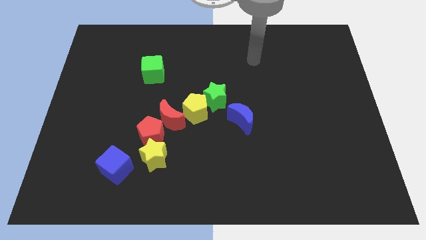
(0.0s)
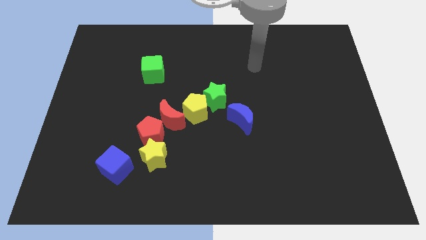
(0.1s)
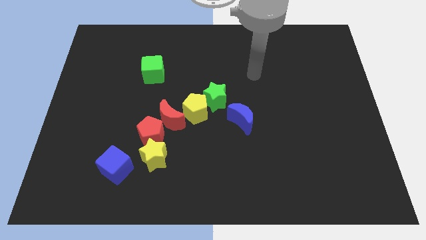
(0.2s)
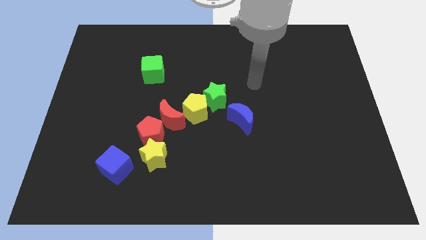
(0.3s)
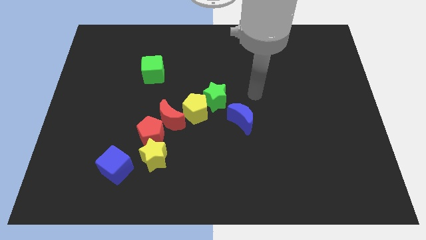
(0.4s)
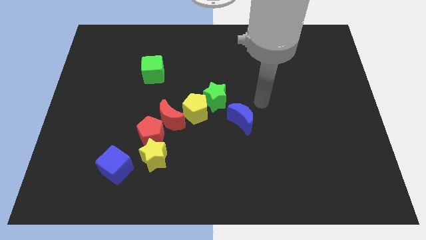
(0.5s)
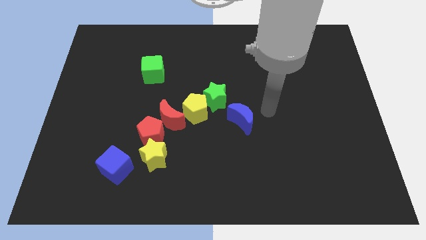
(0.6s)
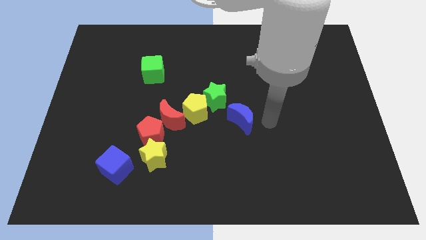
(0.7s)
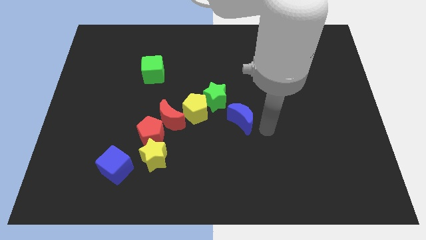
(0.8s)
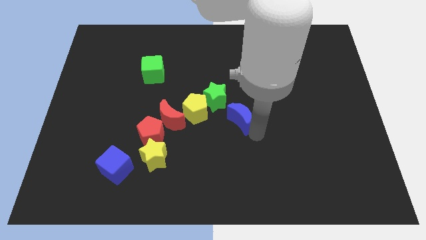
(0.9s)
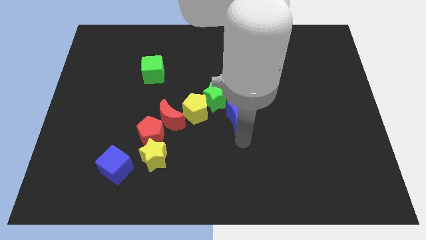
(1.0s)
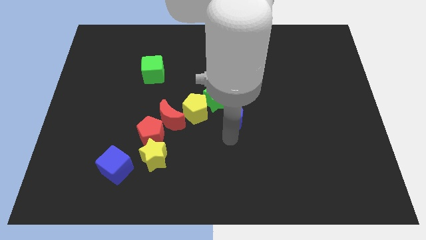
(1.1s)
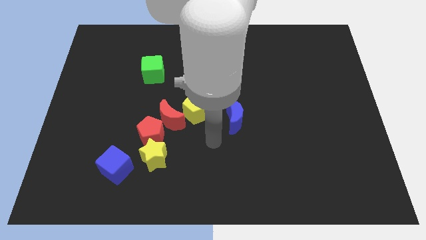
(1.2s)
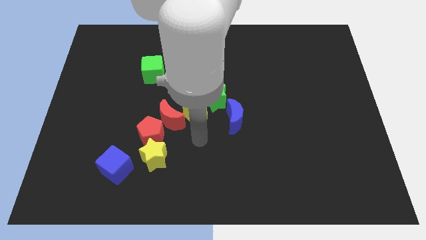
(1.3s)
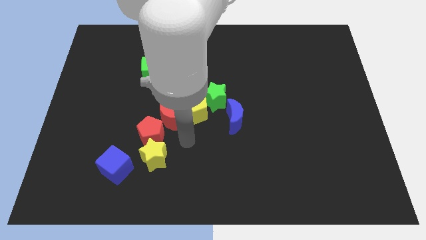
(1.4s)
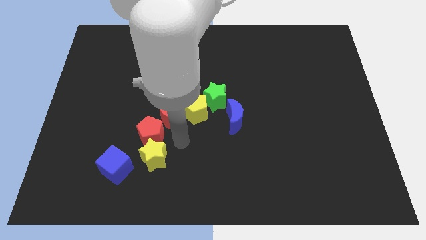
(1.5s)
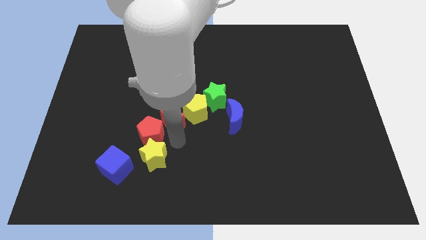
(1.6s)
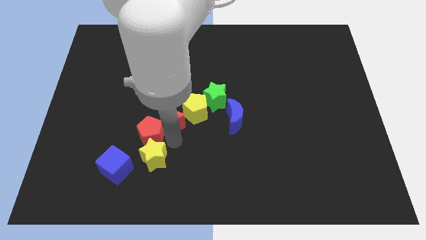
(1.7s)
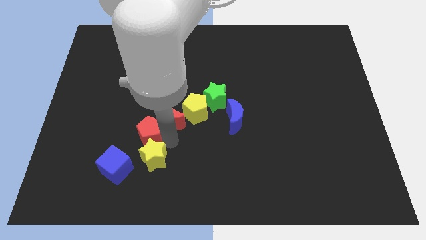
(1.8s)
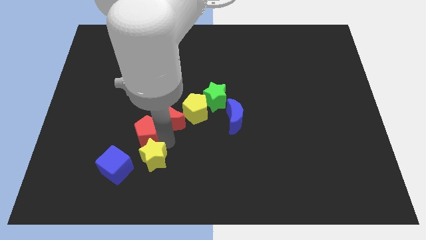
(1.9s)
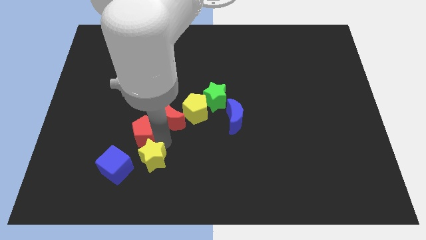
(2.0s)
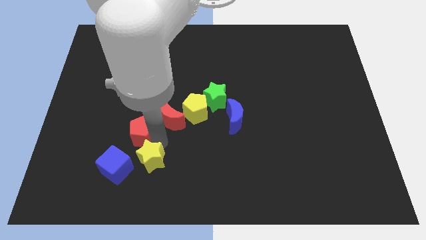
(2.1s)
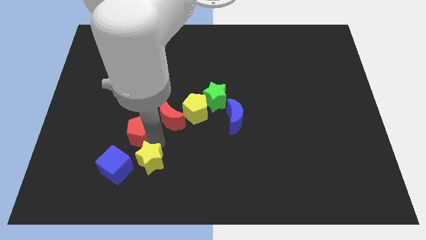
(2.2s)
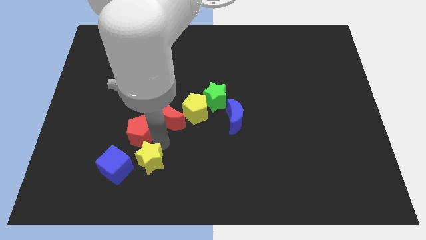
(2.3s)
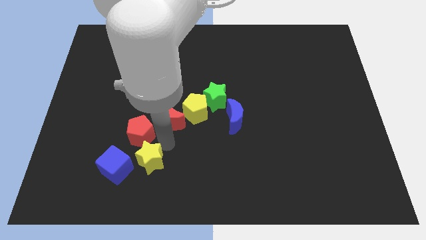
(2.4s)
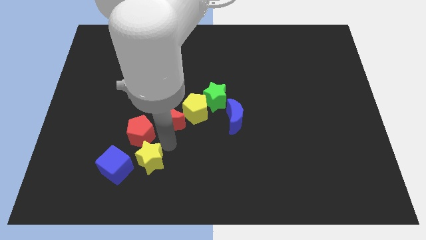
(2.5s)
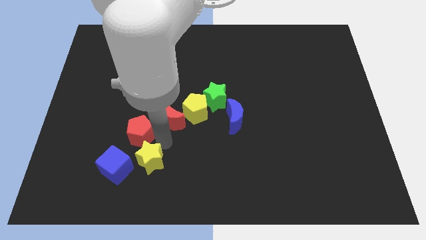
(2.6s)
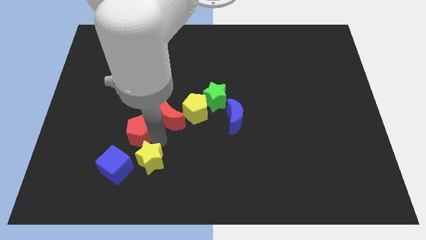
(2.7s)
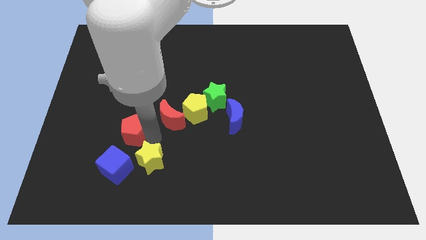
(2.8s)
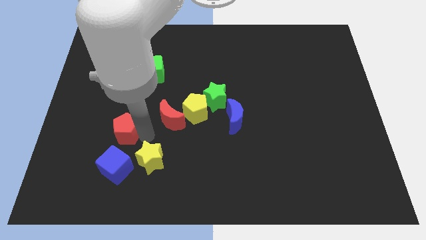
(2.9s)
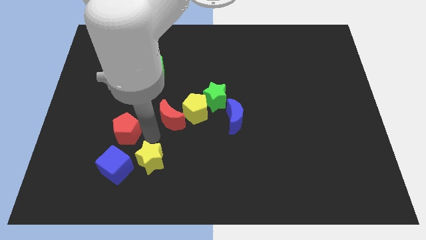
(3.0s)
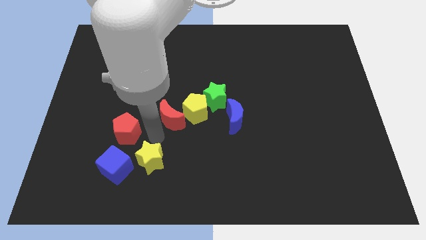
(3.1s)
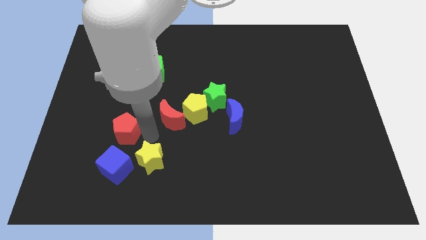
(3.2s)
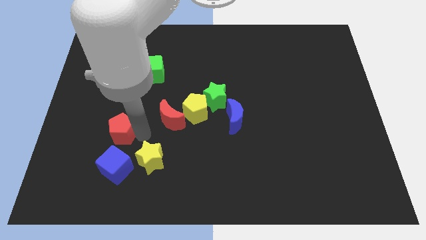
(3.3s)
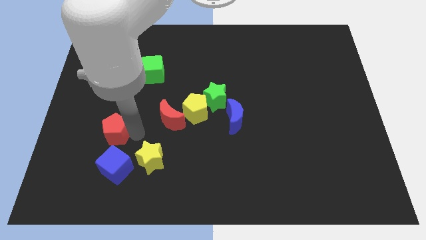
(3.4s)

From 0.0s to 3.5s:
pull the red pentagon apart from the red moon and yellow star

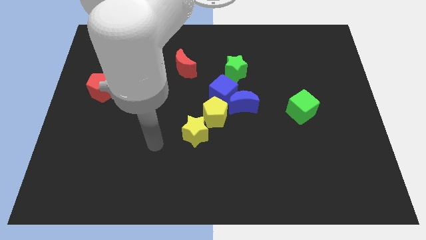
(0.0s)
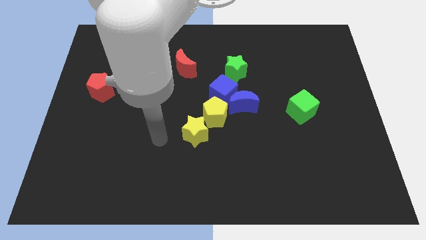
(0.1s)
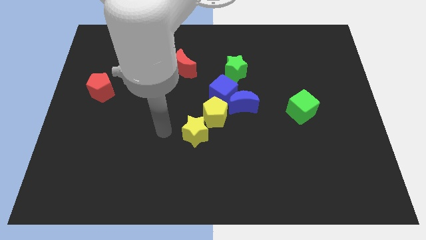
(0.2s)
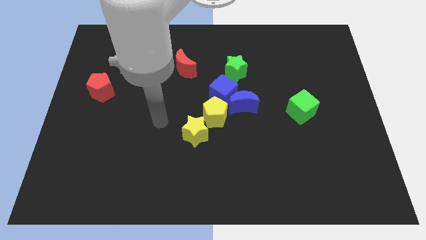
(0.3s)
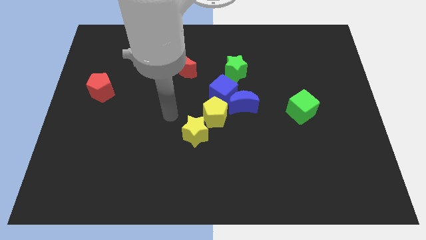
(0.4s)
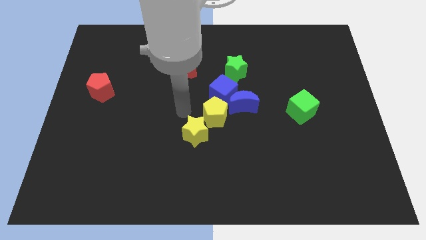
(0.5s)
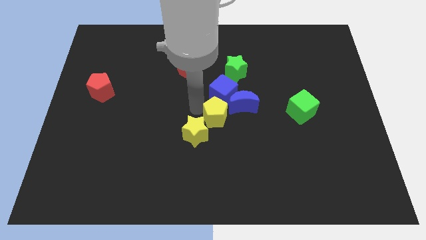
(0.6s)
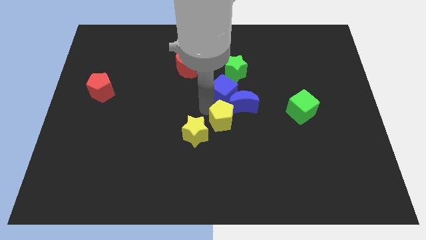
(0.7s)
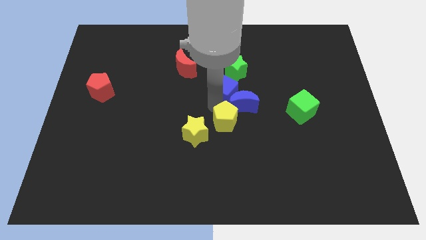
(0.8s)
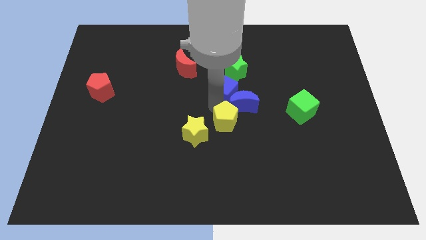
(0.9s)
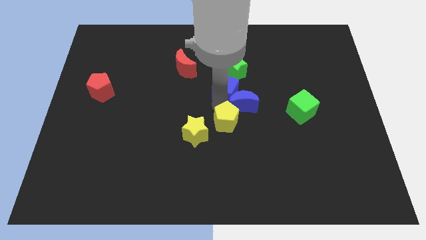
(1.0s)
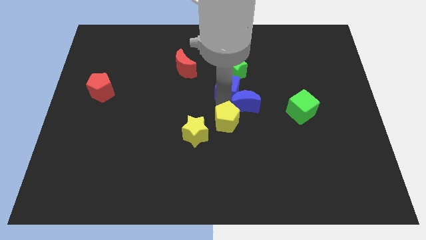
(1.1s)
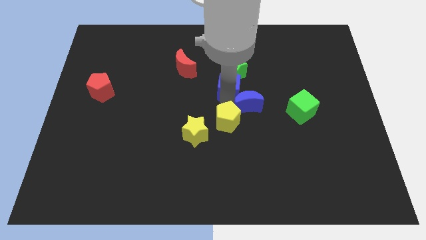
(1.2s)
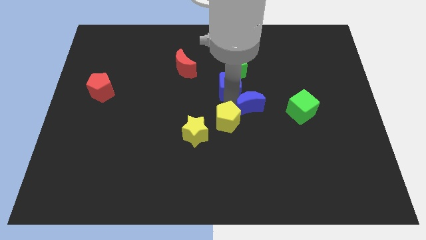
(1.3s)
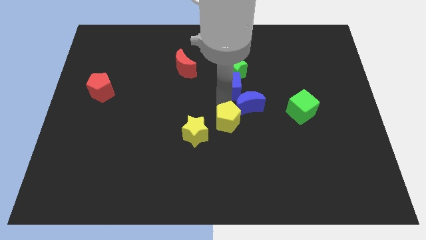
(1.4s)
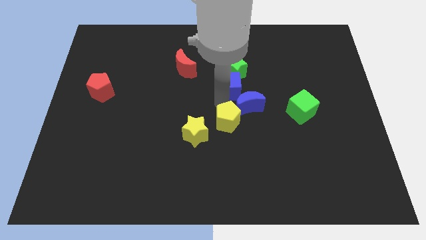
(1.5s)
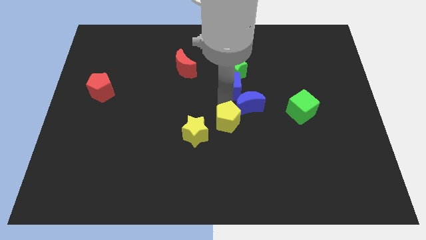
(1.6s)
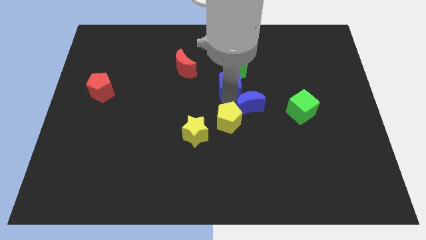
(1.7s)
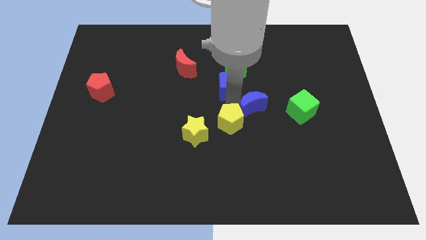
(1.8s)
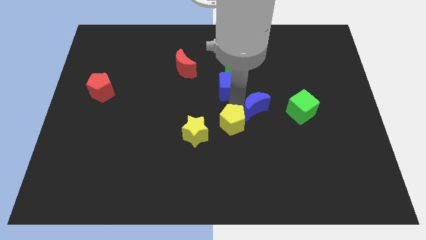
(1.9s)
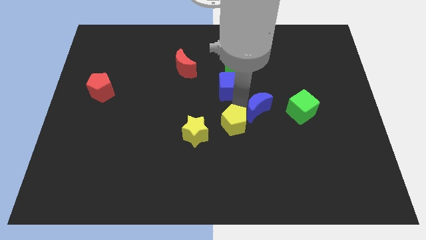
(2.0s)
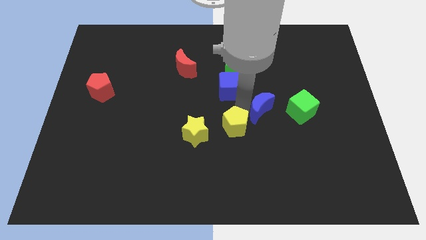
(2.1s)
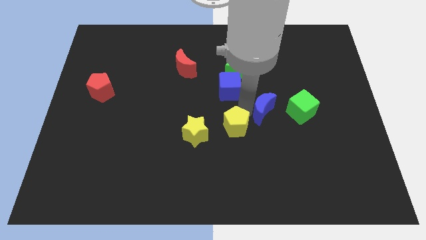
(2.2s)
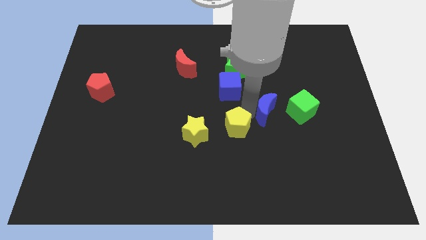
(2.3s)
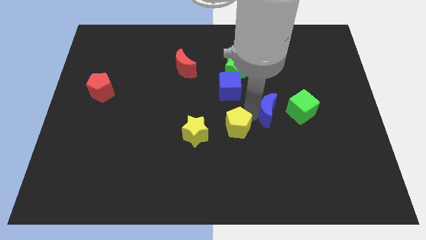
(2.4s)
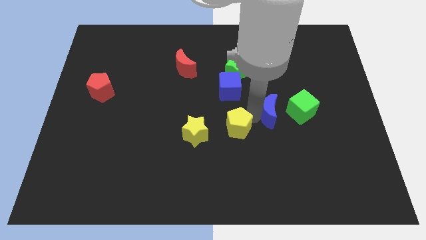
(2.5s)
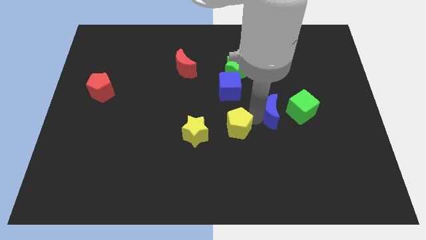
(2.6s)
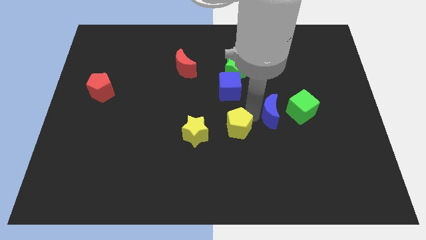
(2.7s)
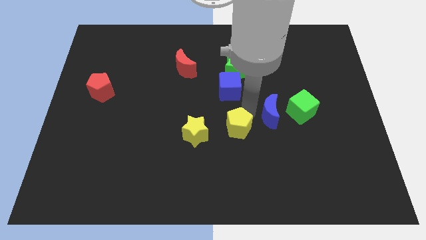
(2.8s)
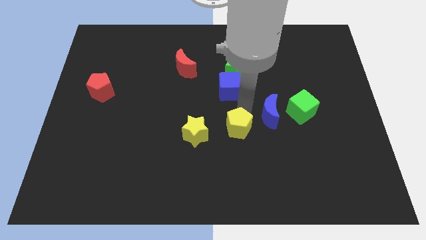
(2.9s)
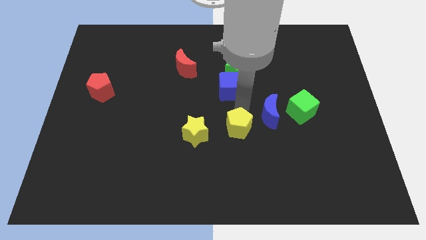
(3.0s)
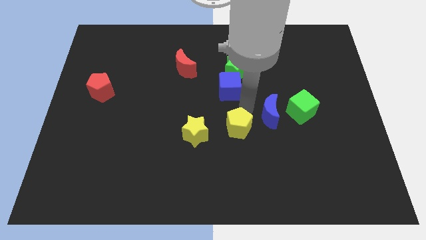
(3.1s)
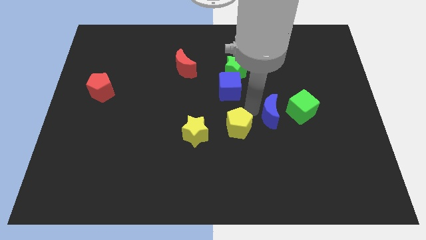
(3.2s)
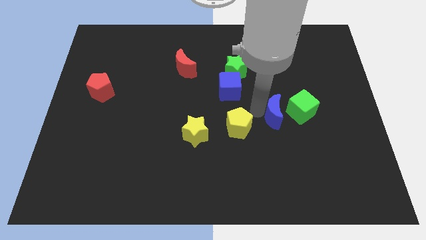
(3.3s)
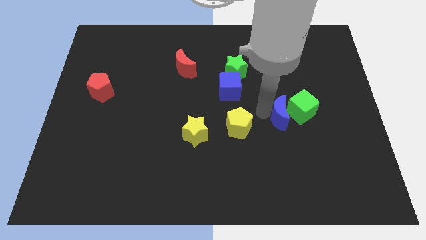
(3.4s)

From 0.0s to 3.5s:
pull the blue moon apart from the blue cube and yellow pentagon

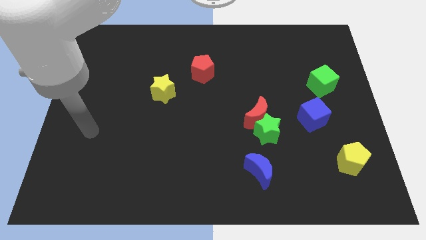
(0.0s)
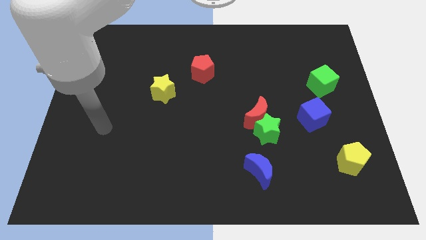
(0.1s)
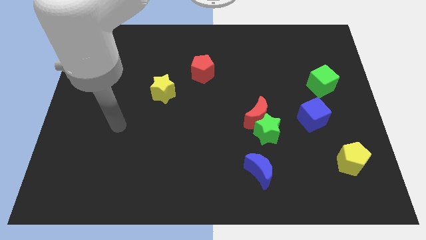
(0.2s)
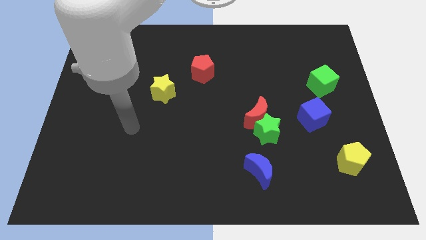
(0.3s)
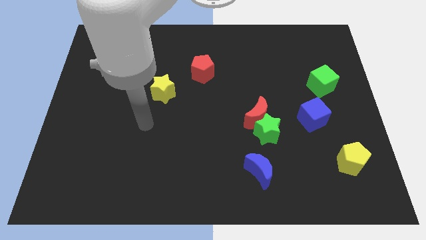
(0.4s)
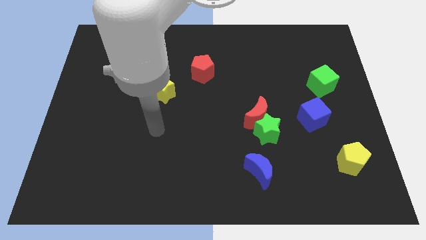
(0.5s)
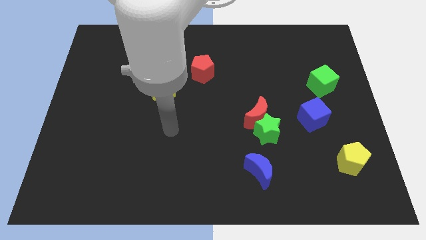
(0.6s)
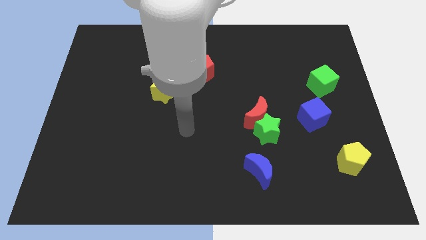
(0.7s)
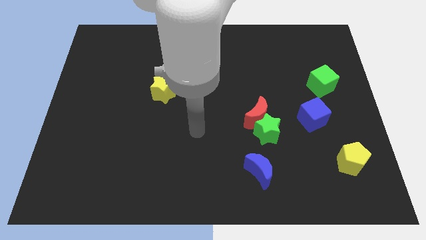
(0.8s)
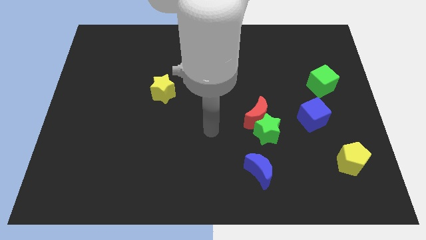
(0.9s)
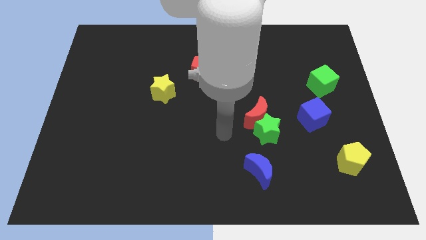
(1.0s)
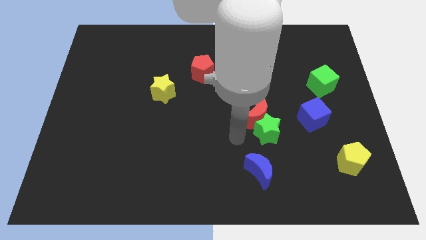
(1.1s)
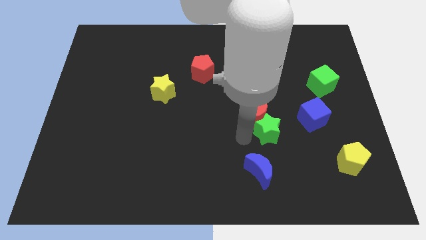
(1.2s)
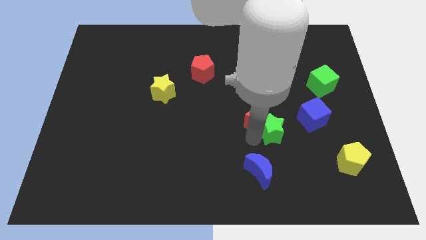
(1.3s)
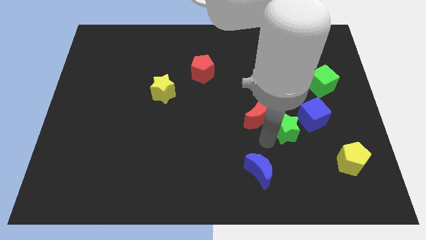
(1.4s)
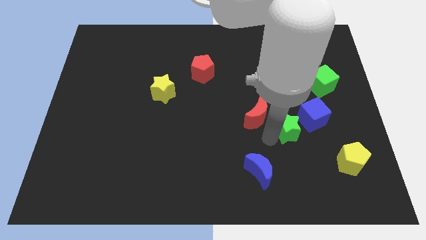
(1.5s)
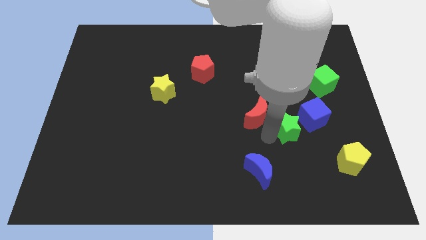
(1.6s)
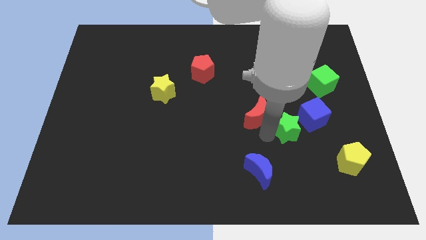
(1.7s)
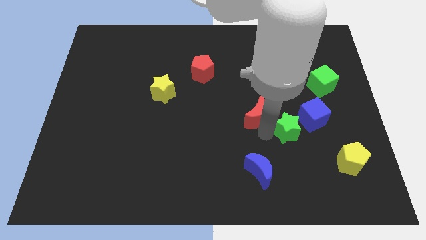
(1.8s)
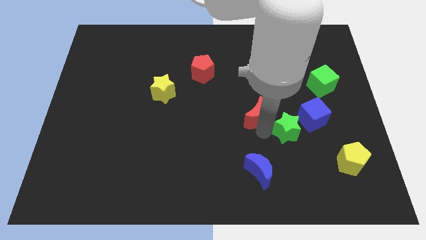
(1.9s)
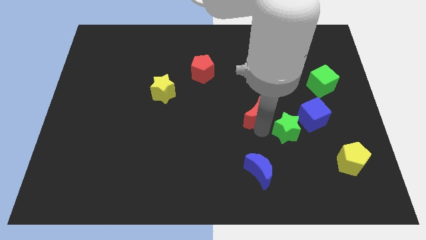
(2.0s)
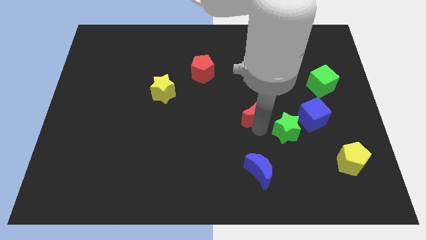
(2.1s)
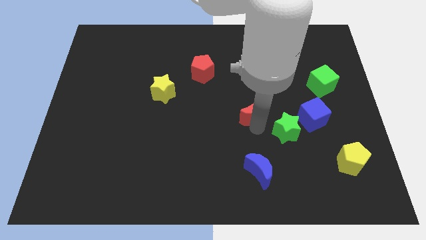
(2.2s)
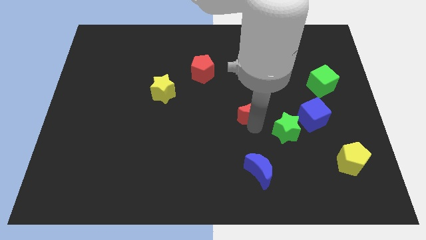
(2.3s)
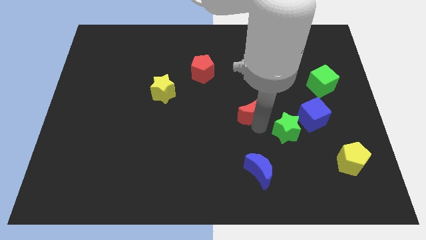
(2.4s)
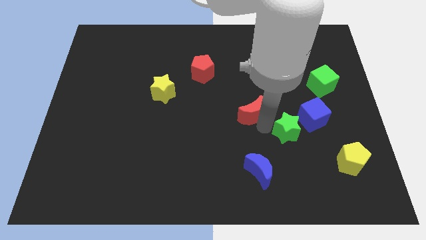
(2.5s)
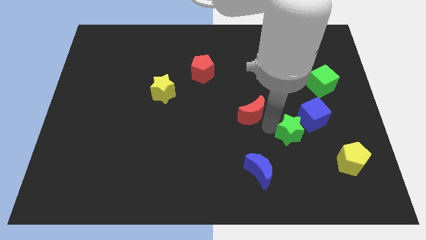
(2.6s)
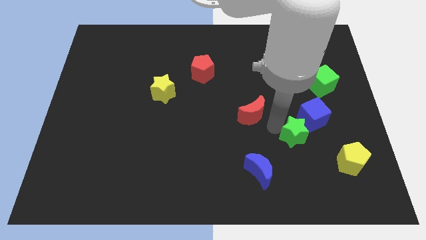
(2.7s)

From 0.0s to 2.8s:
pull the red moon apart from the green star
